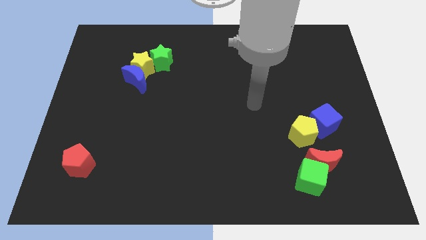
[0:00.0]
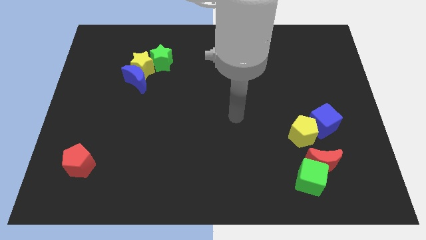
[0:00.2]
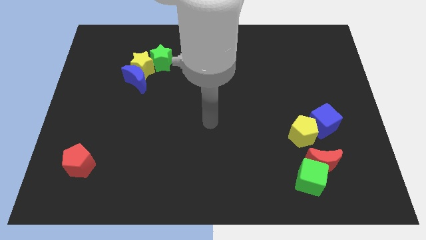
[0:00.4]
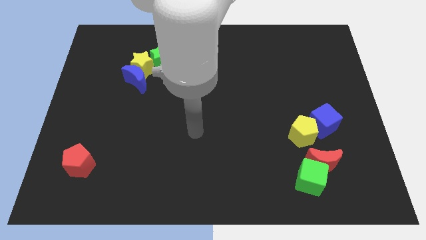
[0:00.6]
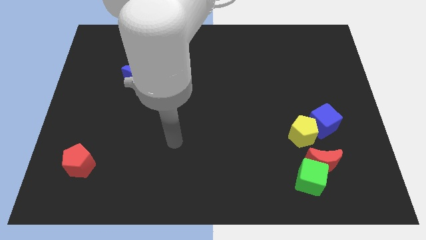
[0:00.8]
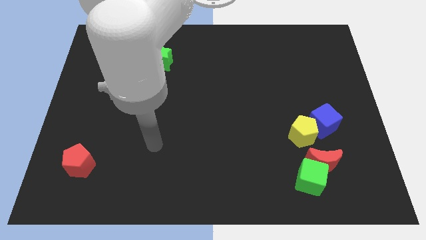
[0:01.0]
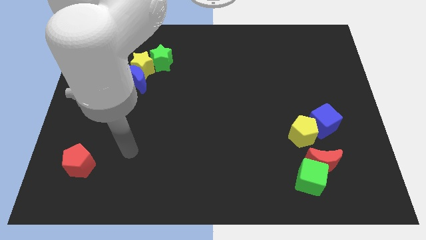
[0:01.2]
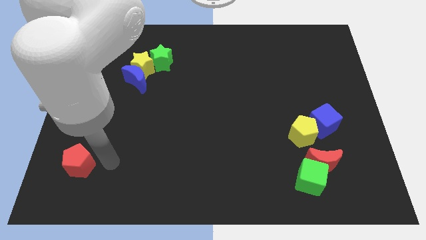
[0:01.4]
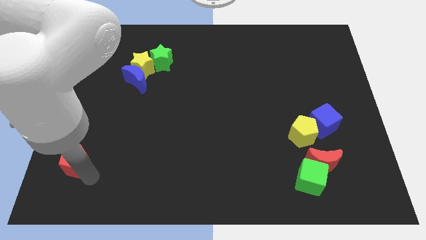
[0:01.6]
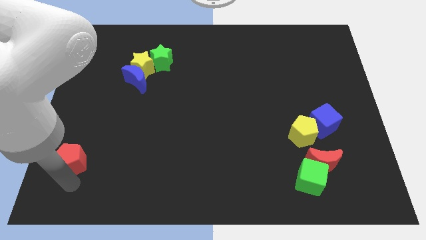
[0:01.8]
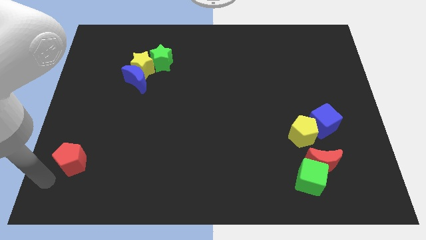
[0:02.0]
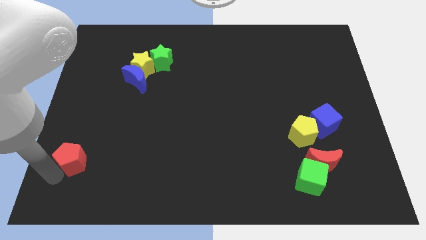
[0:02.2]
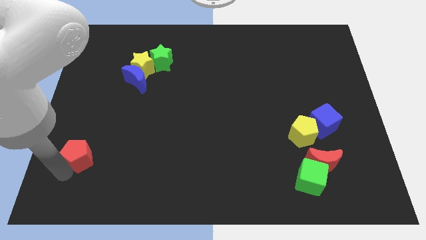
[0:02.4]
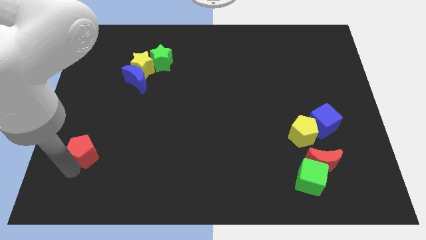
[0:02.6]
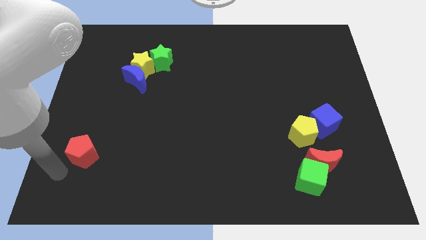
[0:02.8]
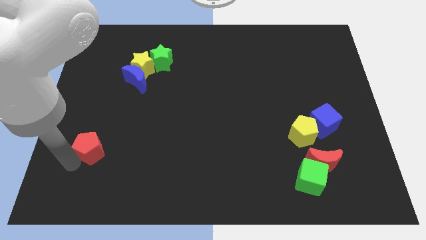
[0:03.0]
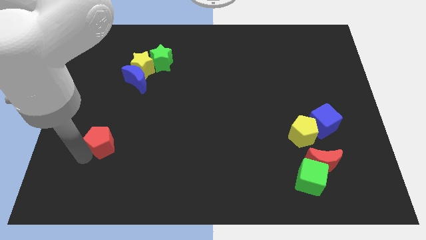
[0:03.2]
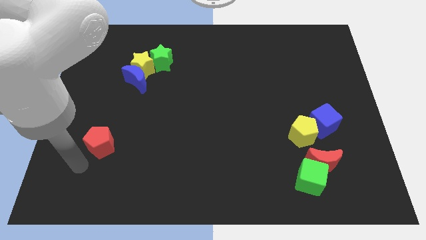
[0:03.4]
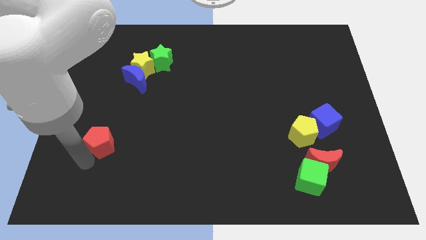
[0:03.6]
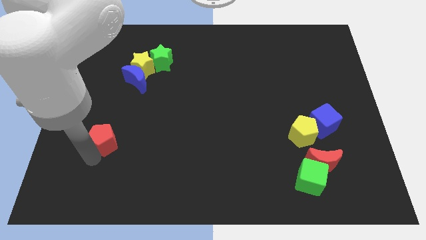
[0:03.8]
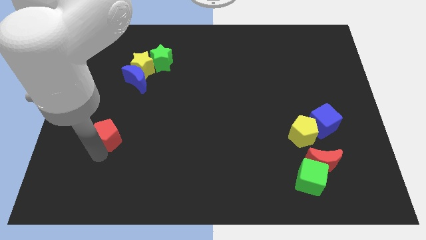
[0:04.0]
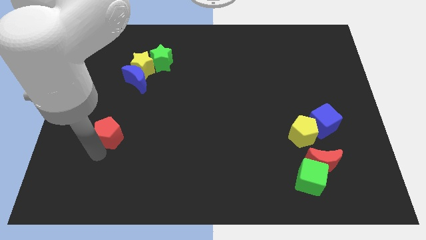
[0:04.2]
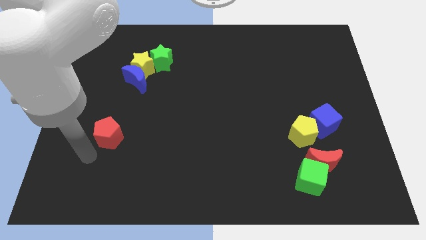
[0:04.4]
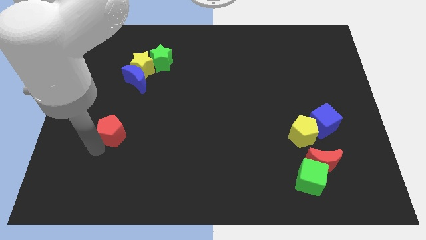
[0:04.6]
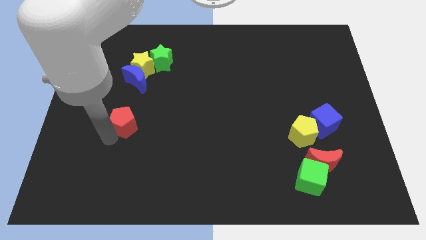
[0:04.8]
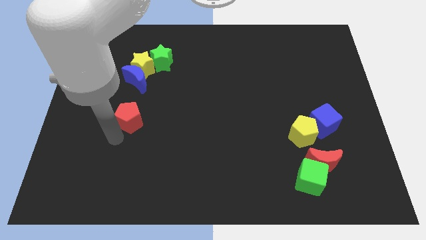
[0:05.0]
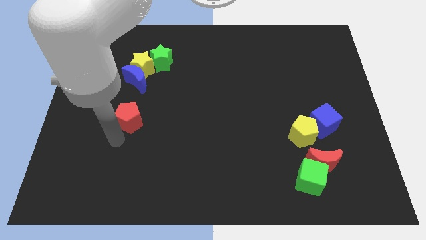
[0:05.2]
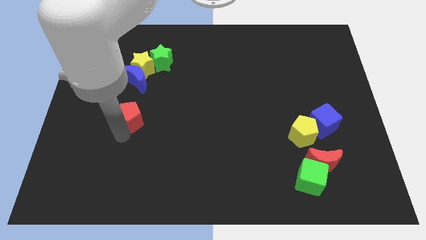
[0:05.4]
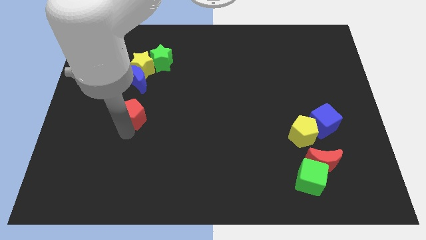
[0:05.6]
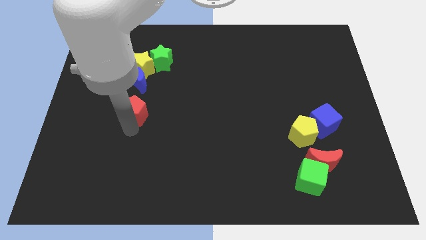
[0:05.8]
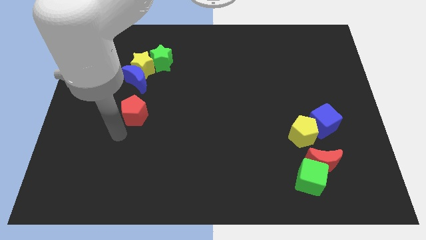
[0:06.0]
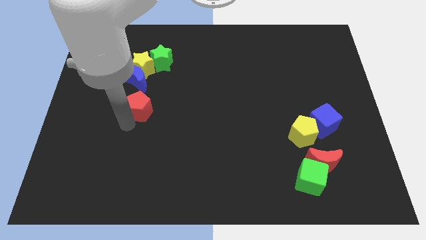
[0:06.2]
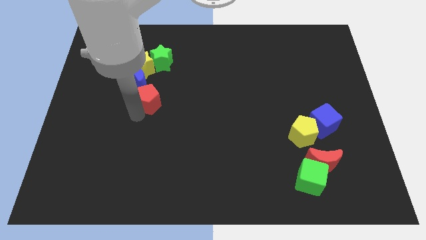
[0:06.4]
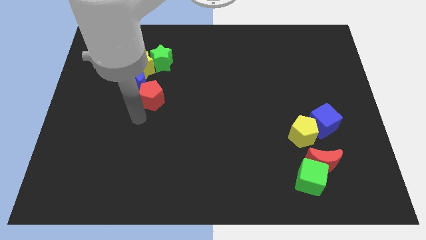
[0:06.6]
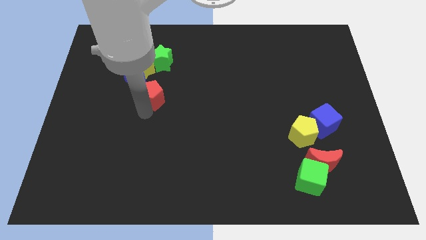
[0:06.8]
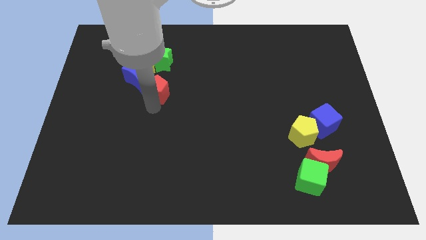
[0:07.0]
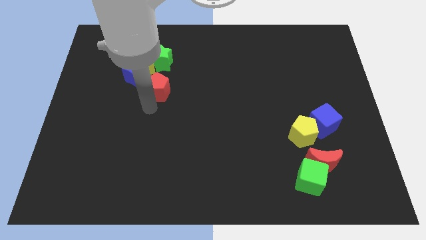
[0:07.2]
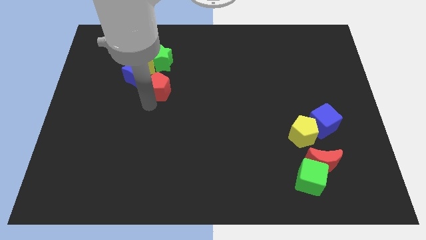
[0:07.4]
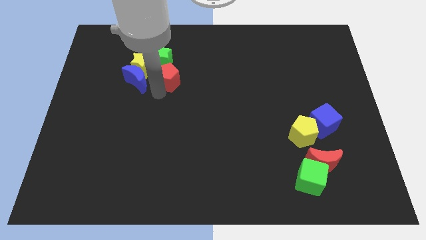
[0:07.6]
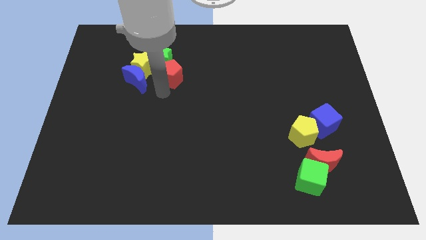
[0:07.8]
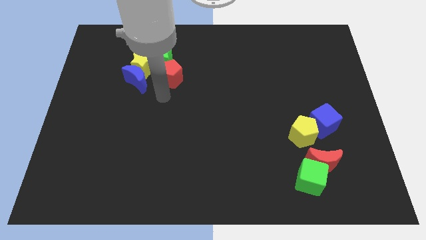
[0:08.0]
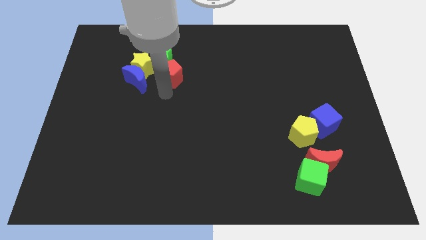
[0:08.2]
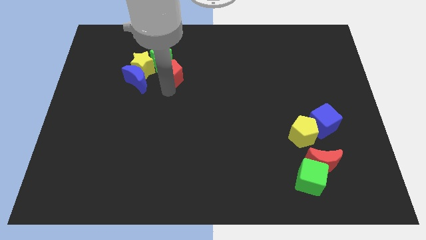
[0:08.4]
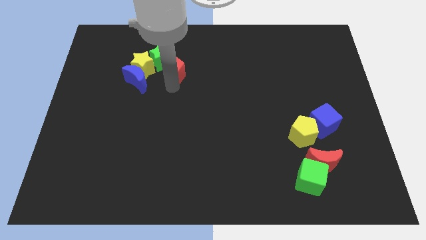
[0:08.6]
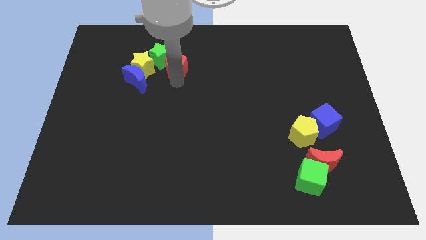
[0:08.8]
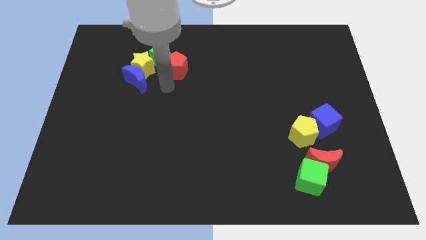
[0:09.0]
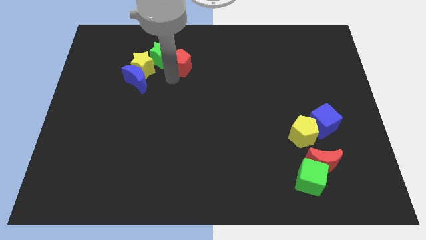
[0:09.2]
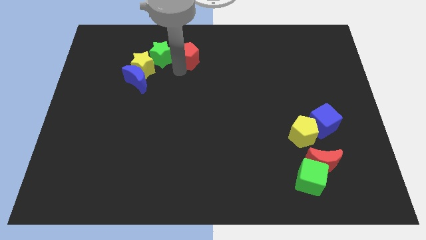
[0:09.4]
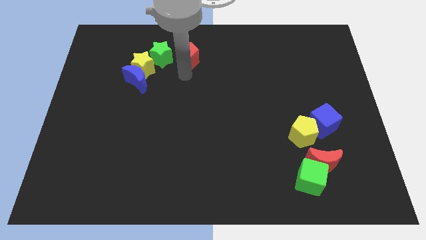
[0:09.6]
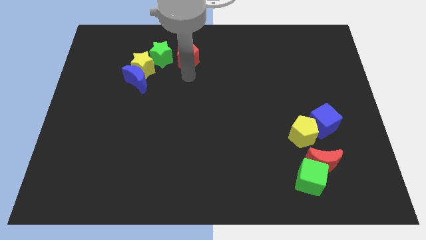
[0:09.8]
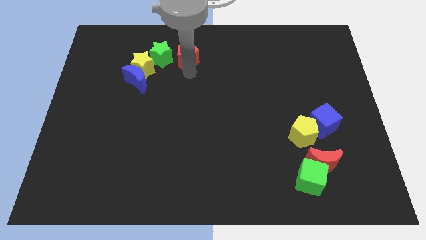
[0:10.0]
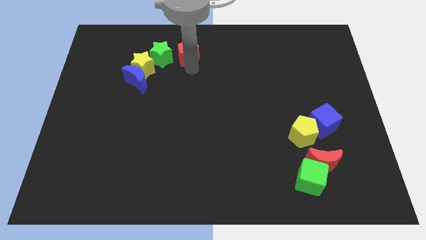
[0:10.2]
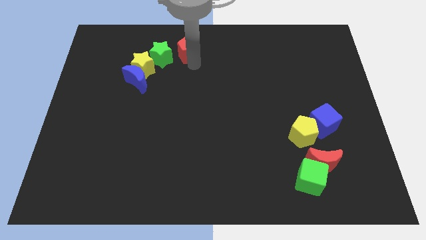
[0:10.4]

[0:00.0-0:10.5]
slide the red pentagon to the top side
